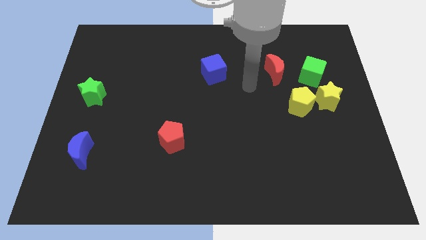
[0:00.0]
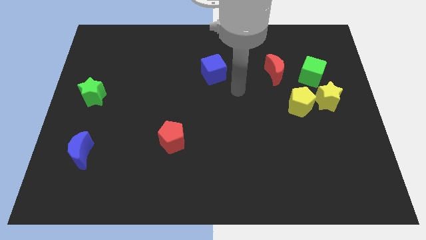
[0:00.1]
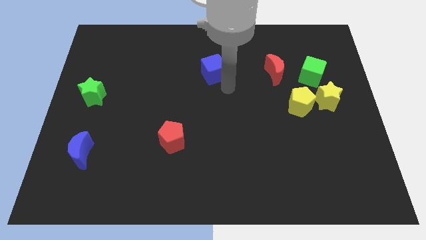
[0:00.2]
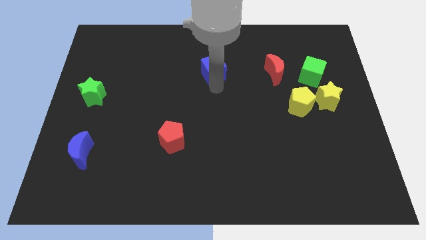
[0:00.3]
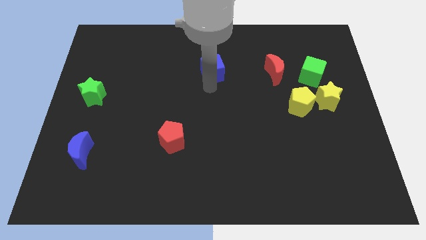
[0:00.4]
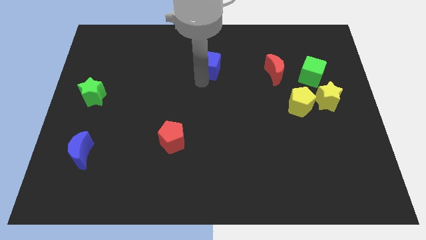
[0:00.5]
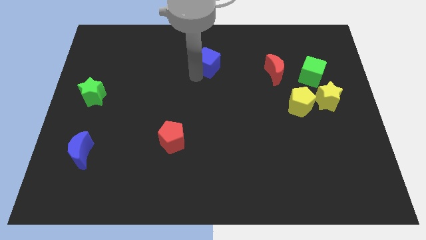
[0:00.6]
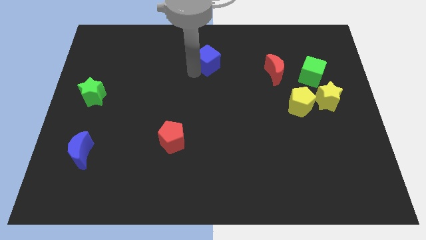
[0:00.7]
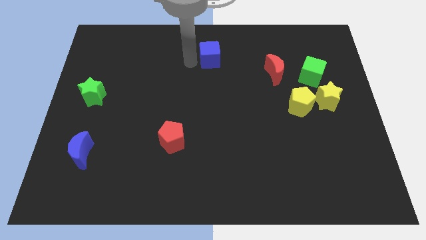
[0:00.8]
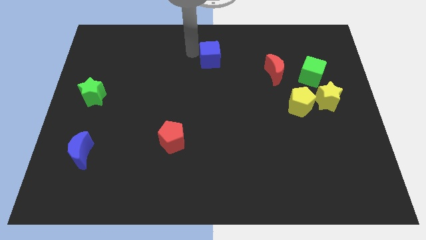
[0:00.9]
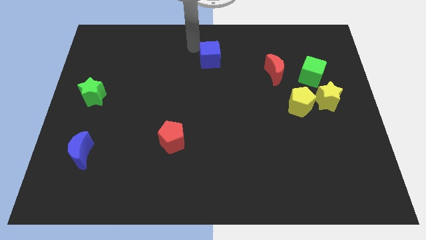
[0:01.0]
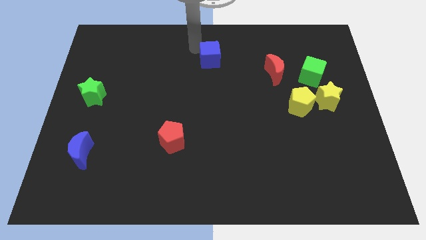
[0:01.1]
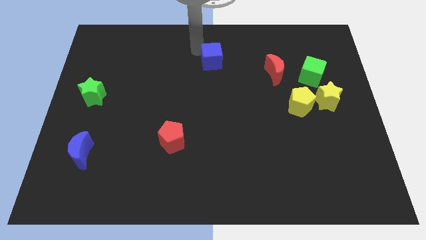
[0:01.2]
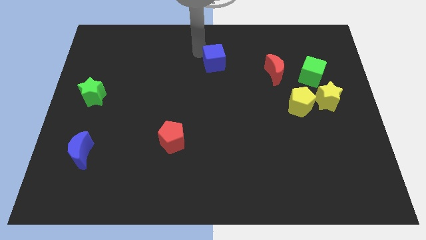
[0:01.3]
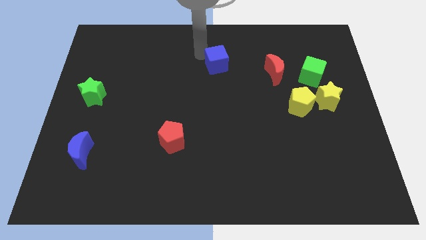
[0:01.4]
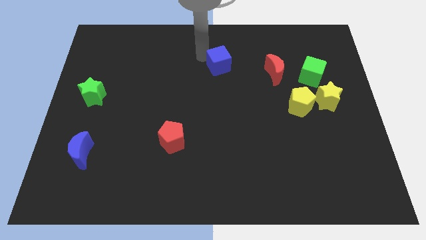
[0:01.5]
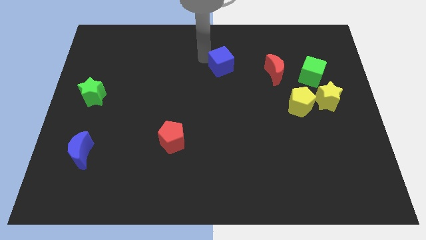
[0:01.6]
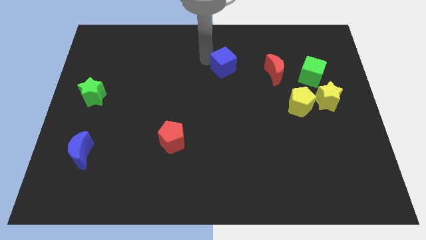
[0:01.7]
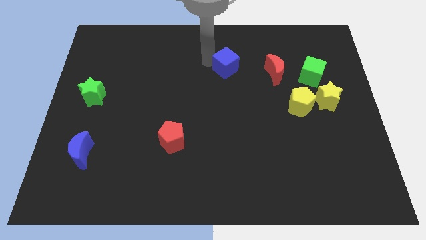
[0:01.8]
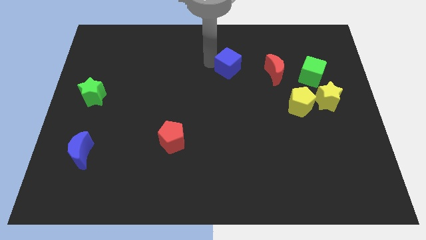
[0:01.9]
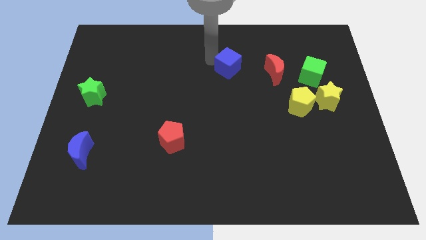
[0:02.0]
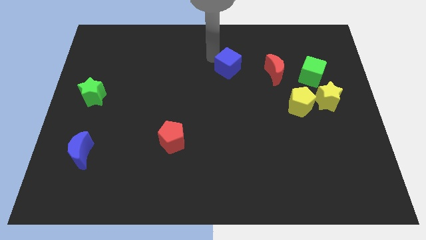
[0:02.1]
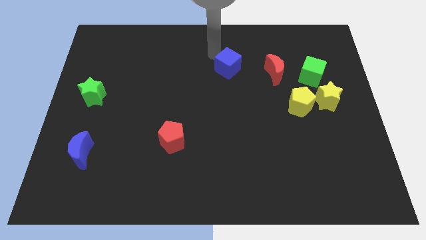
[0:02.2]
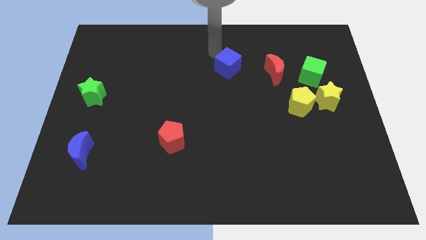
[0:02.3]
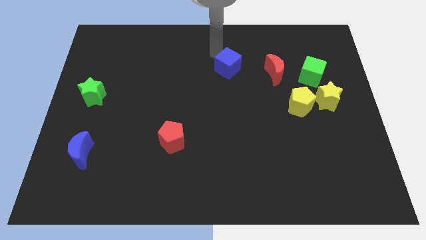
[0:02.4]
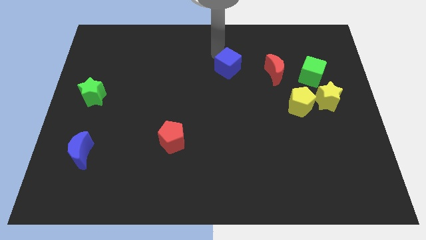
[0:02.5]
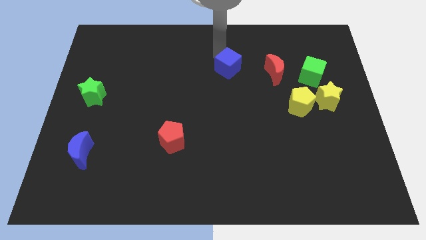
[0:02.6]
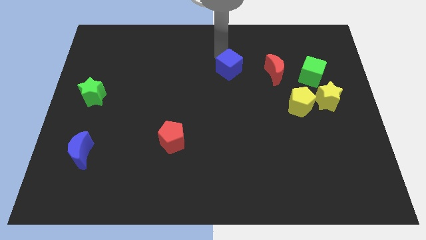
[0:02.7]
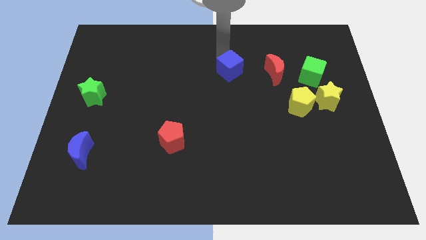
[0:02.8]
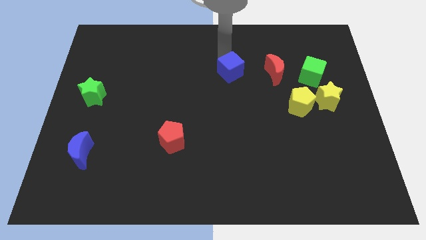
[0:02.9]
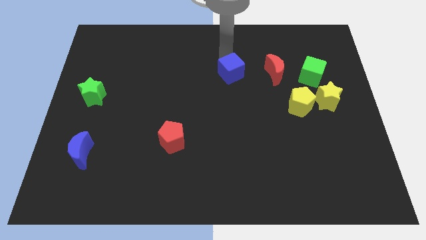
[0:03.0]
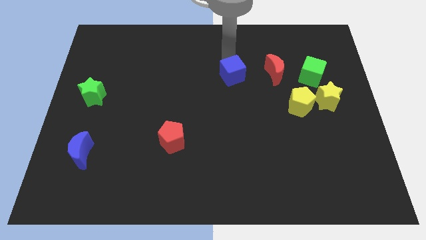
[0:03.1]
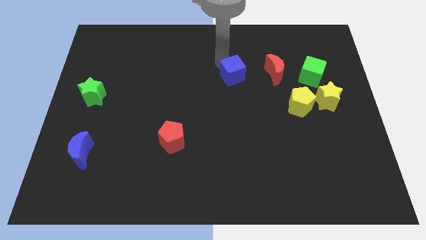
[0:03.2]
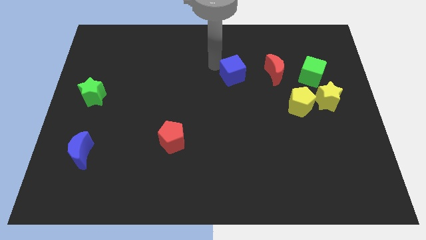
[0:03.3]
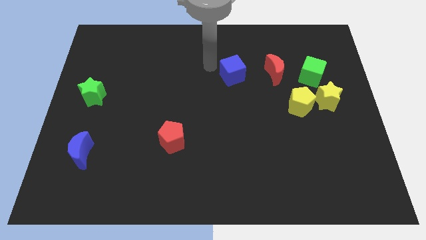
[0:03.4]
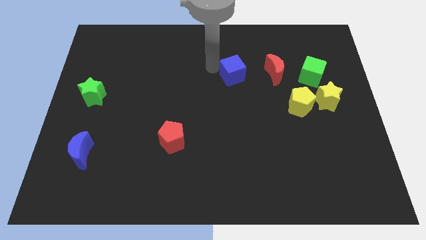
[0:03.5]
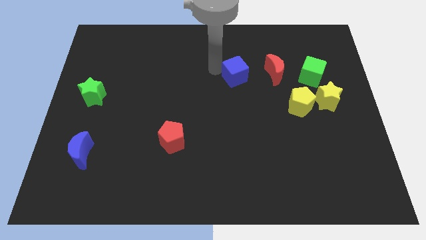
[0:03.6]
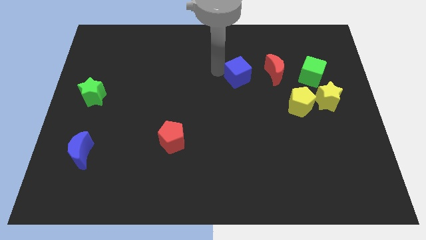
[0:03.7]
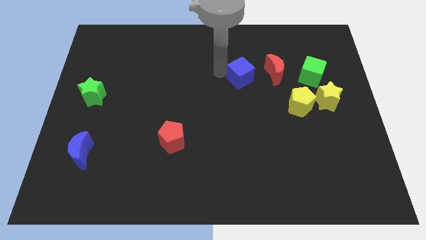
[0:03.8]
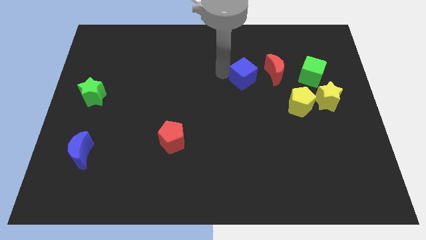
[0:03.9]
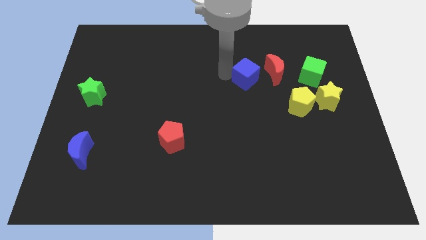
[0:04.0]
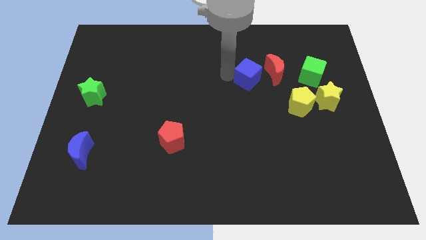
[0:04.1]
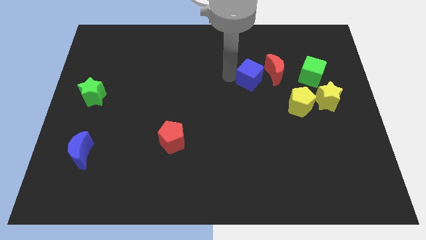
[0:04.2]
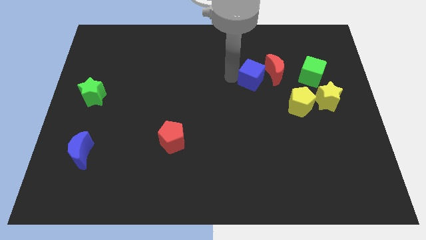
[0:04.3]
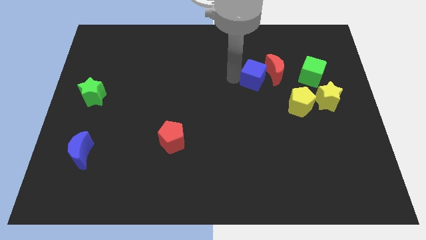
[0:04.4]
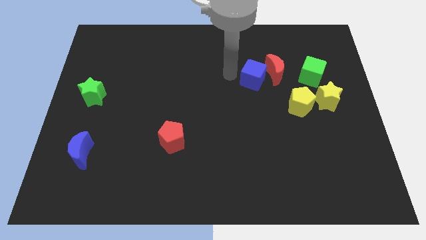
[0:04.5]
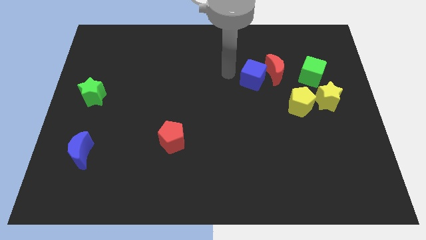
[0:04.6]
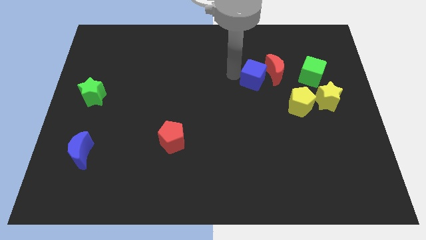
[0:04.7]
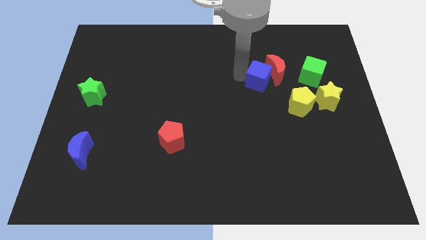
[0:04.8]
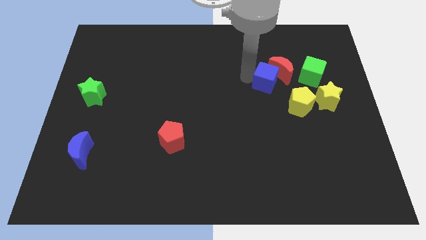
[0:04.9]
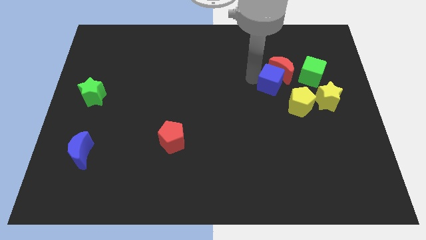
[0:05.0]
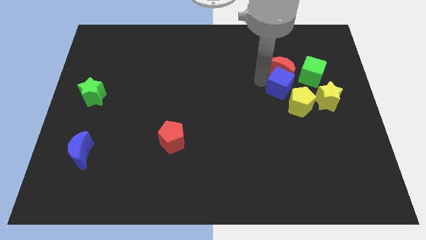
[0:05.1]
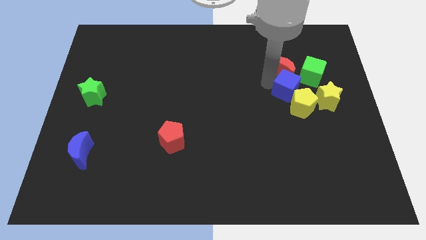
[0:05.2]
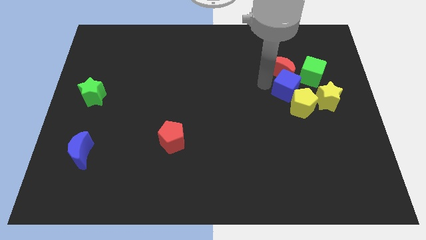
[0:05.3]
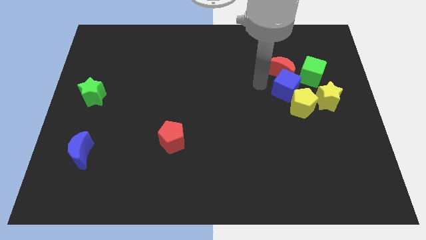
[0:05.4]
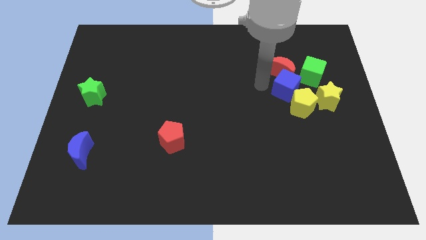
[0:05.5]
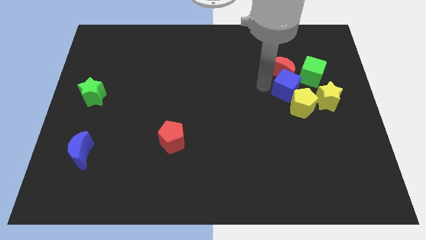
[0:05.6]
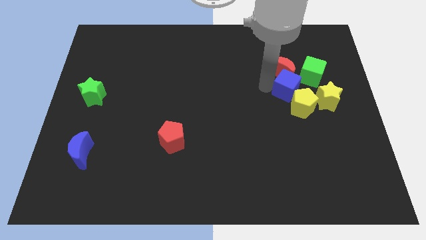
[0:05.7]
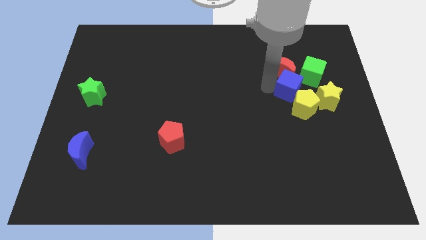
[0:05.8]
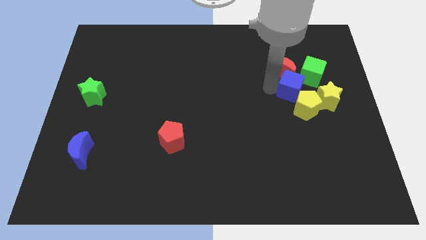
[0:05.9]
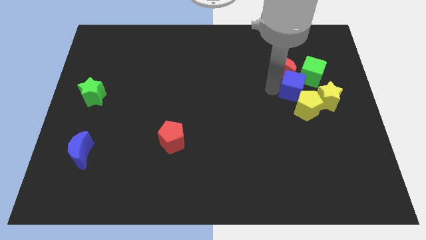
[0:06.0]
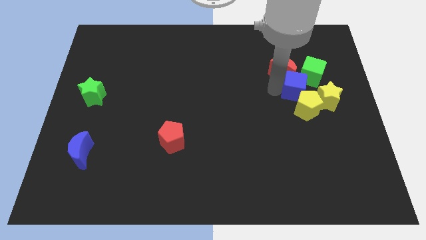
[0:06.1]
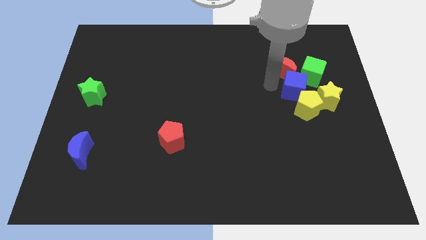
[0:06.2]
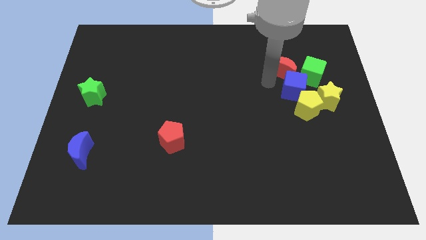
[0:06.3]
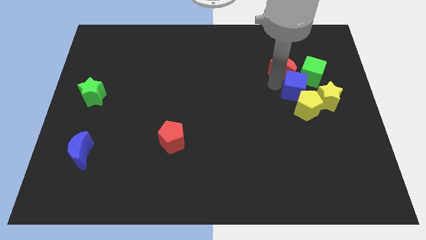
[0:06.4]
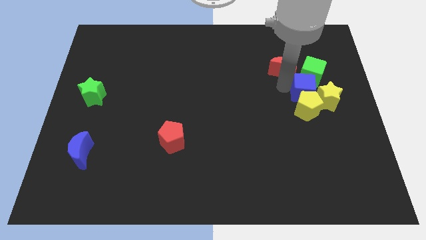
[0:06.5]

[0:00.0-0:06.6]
slide the blue cube to the yellow star

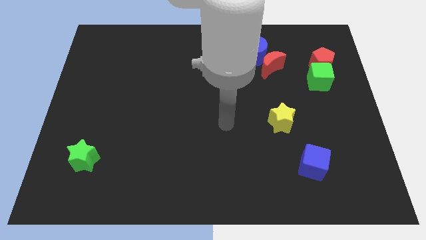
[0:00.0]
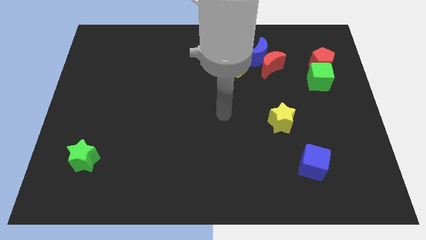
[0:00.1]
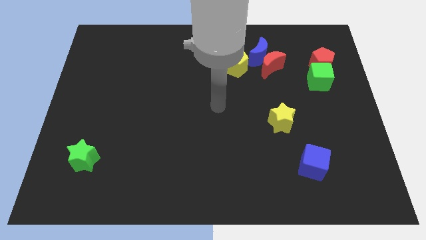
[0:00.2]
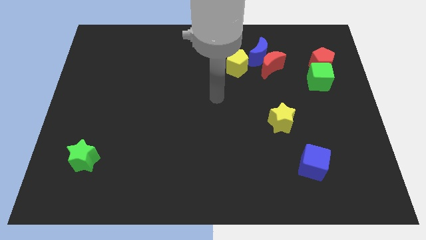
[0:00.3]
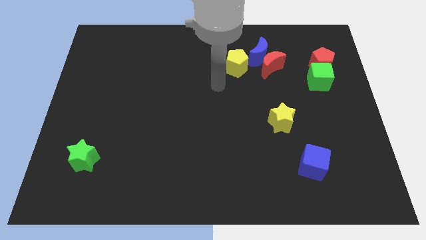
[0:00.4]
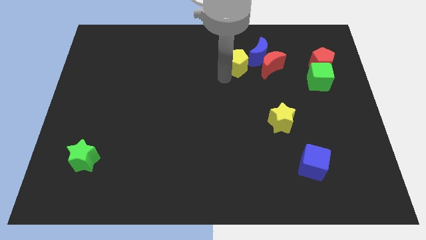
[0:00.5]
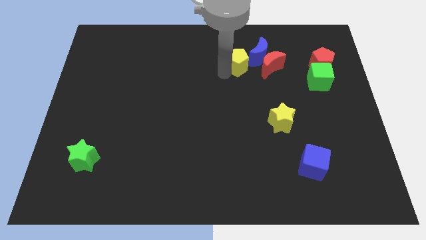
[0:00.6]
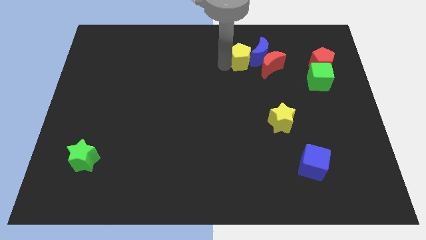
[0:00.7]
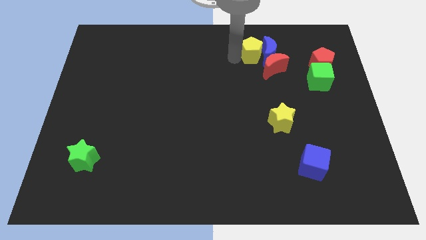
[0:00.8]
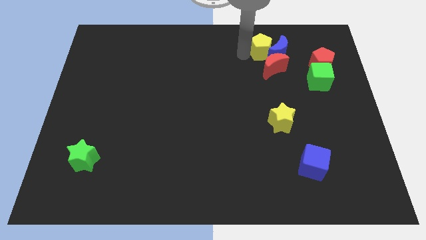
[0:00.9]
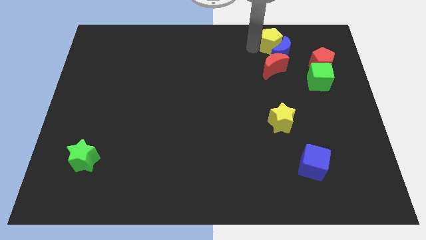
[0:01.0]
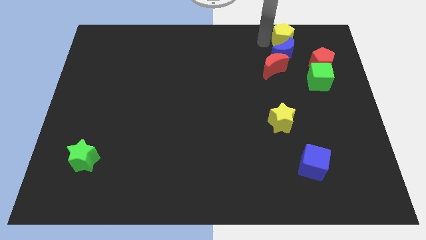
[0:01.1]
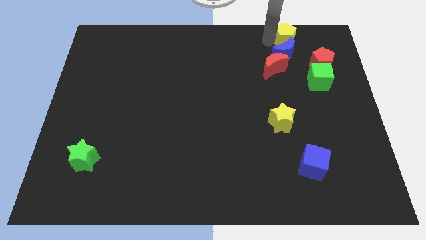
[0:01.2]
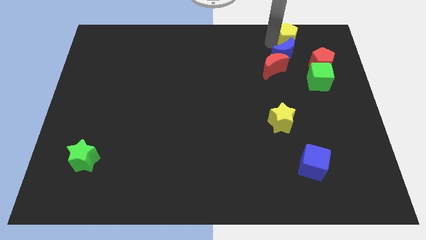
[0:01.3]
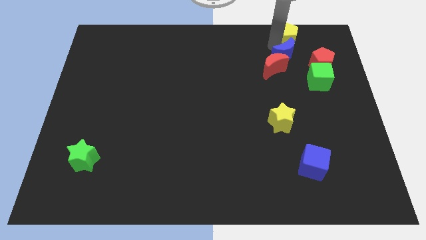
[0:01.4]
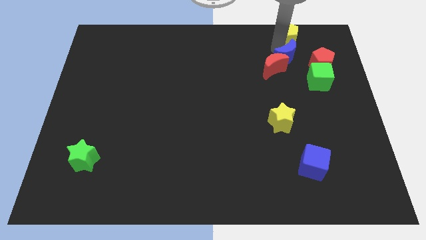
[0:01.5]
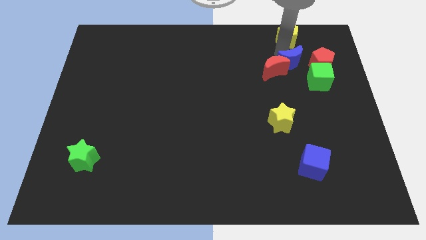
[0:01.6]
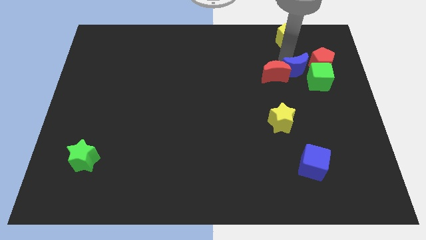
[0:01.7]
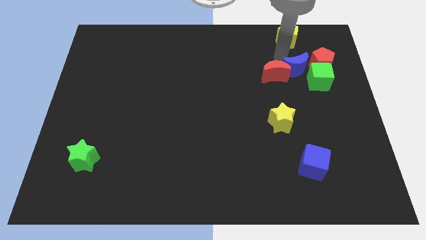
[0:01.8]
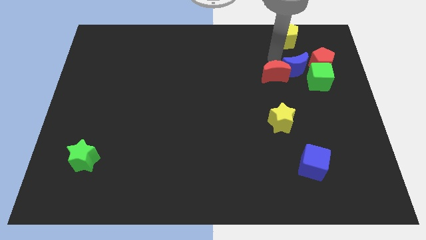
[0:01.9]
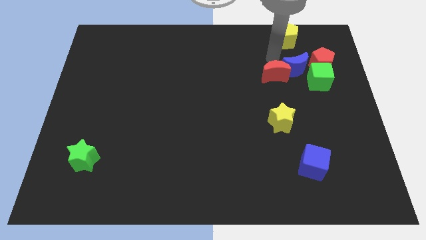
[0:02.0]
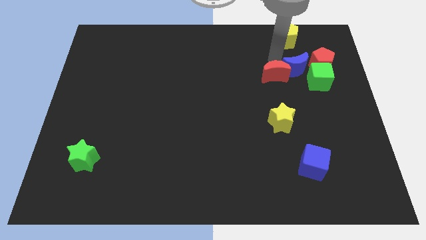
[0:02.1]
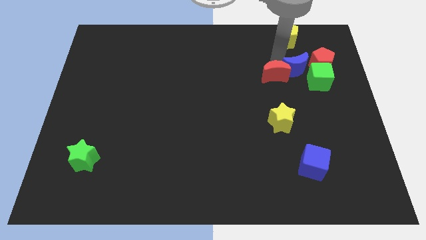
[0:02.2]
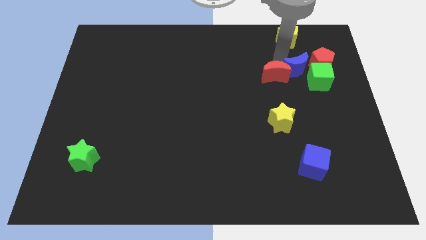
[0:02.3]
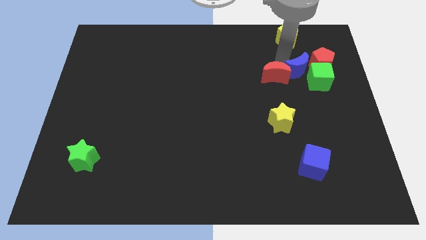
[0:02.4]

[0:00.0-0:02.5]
put the blue moon close to the green cube
